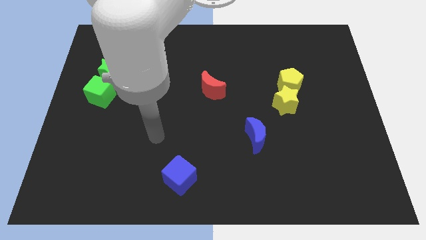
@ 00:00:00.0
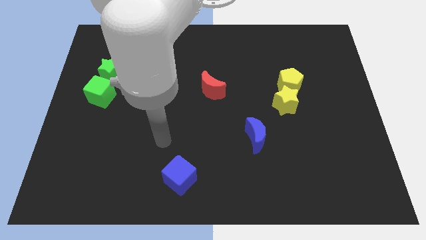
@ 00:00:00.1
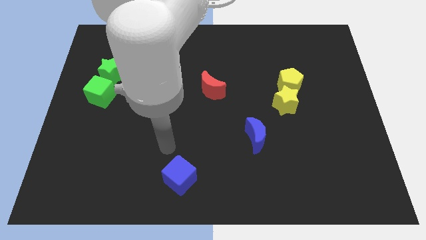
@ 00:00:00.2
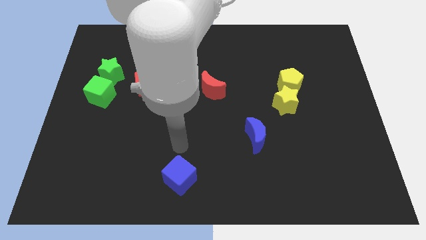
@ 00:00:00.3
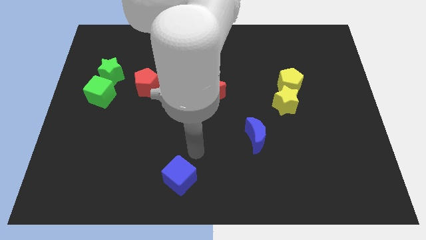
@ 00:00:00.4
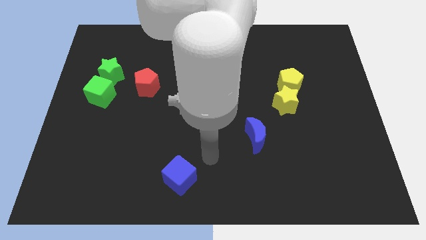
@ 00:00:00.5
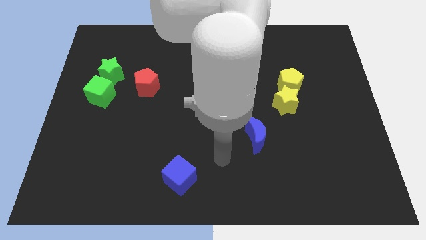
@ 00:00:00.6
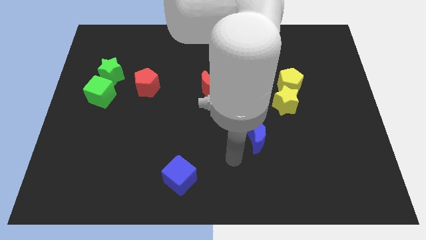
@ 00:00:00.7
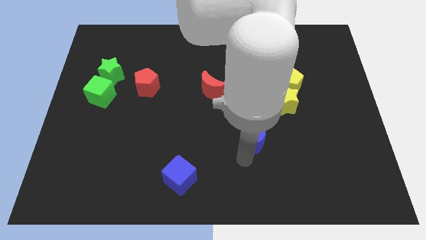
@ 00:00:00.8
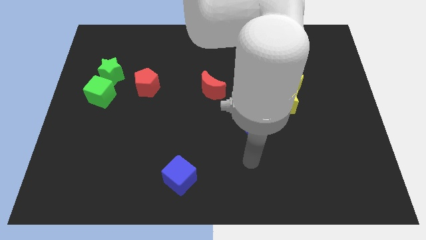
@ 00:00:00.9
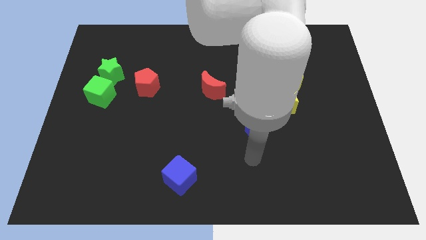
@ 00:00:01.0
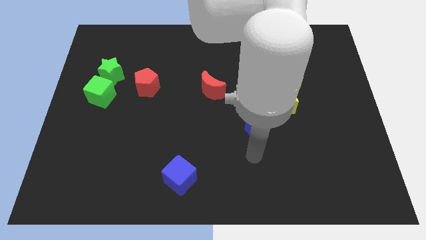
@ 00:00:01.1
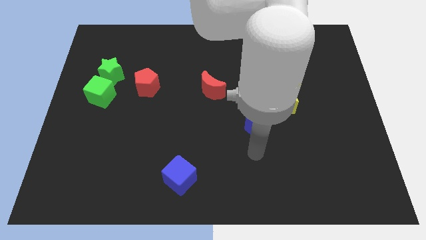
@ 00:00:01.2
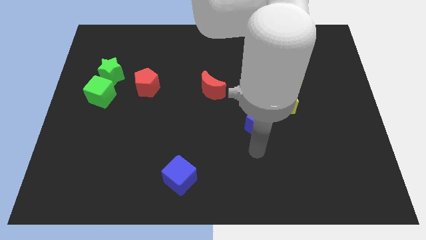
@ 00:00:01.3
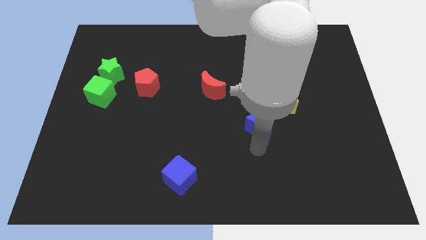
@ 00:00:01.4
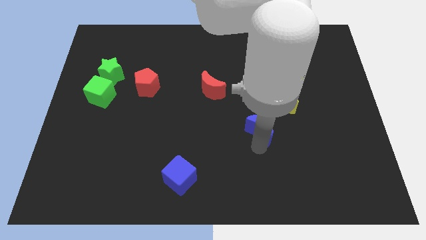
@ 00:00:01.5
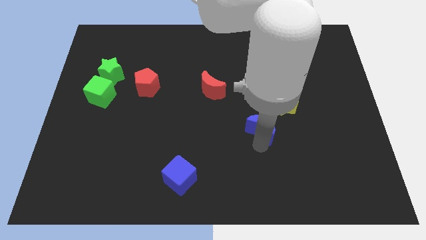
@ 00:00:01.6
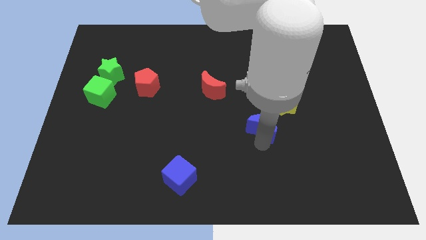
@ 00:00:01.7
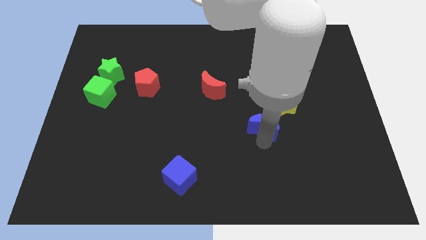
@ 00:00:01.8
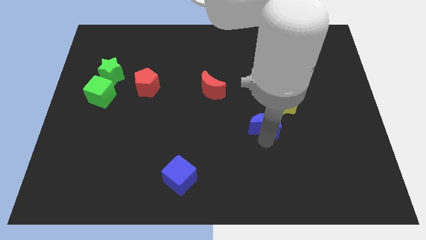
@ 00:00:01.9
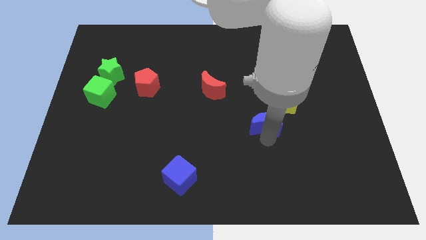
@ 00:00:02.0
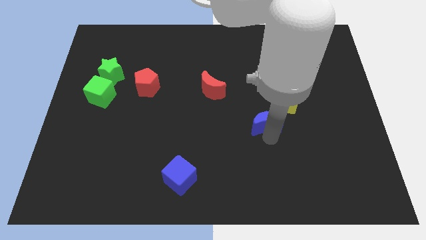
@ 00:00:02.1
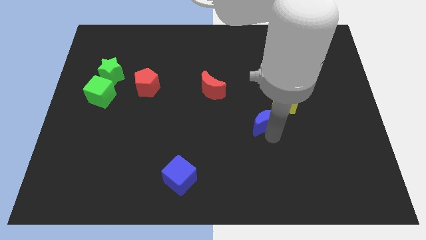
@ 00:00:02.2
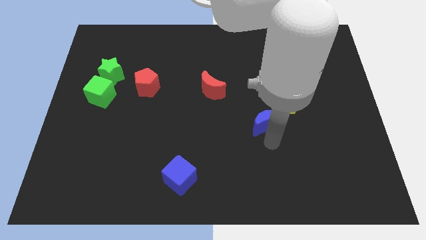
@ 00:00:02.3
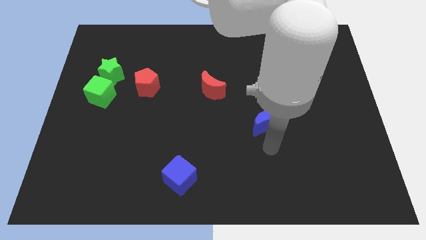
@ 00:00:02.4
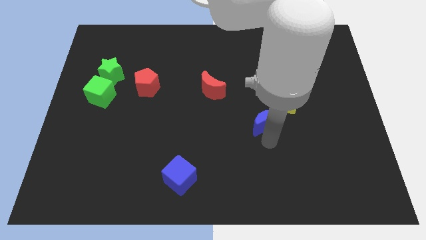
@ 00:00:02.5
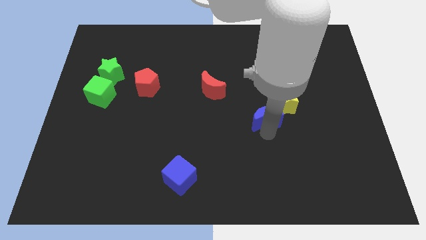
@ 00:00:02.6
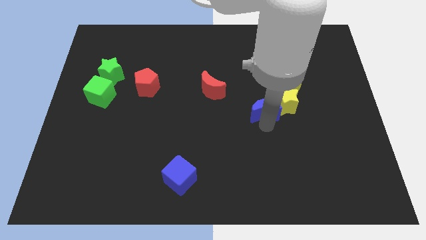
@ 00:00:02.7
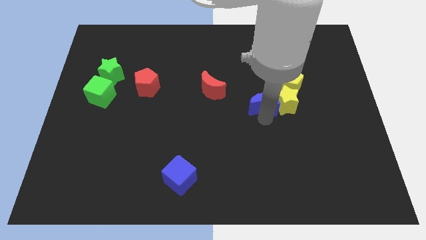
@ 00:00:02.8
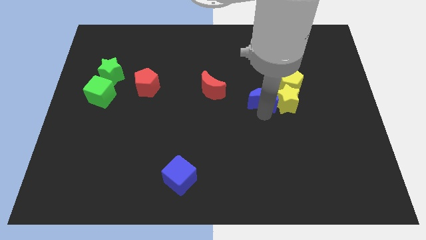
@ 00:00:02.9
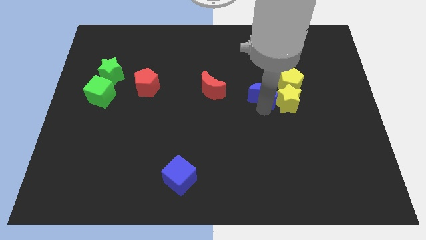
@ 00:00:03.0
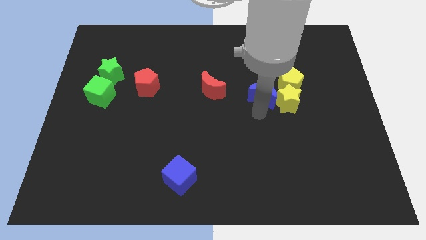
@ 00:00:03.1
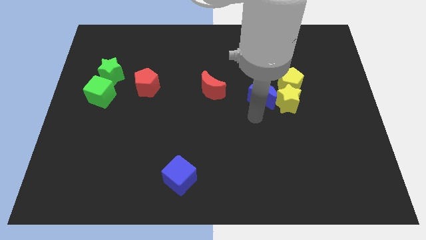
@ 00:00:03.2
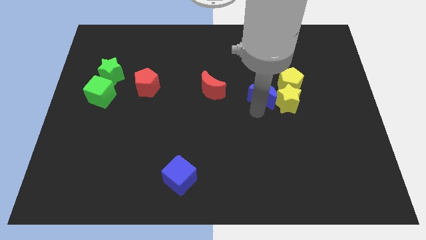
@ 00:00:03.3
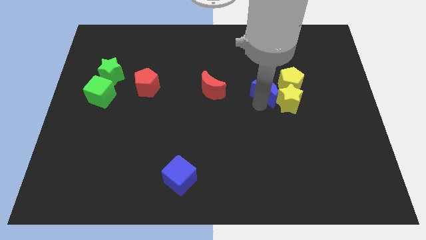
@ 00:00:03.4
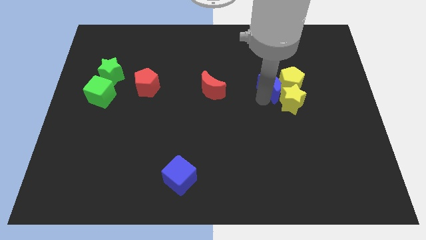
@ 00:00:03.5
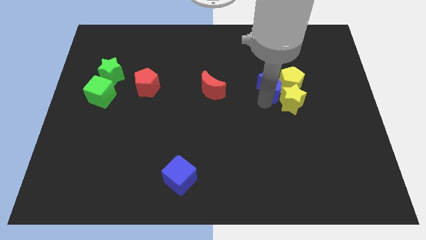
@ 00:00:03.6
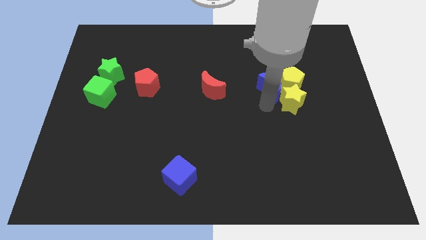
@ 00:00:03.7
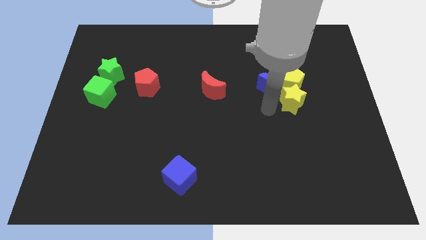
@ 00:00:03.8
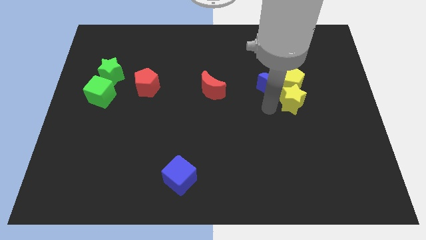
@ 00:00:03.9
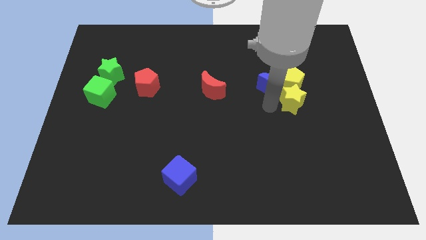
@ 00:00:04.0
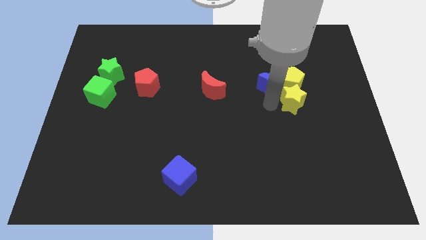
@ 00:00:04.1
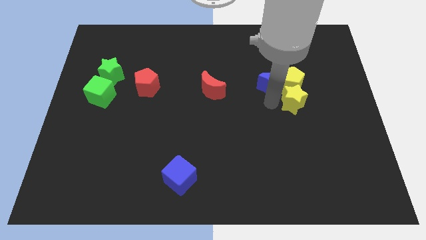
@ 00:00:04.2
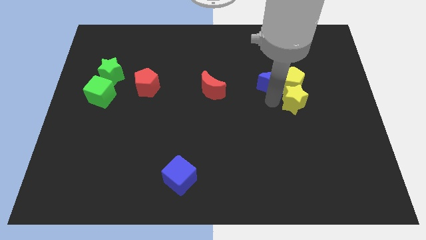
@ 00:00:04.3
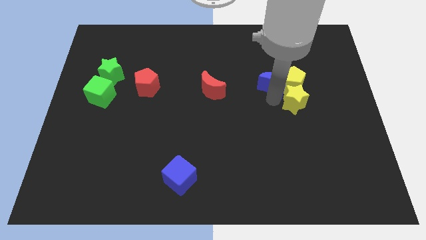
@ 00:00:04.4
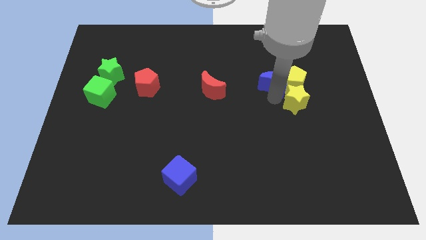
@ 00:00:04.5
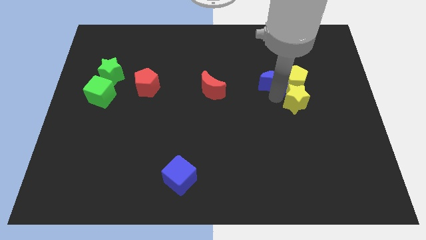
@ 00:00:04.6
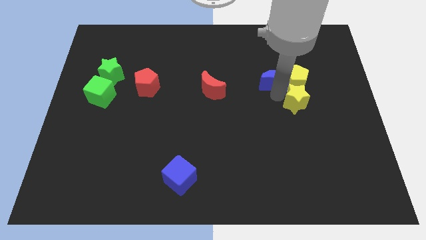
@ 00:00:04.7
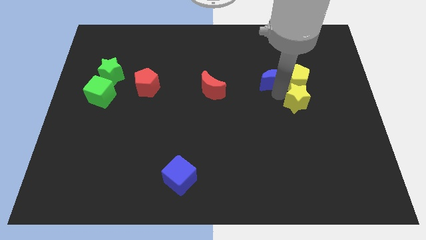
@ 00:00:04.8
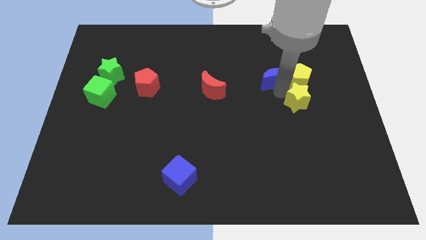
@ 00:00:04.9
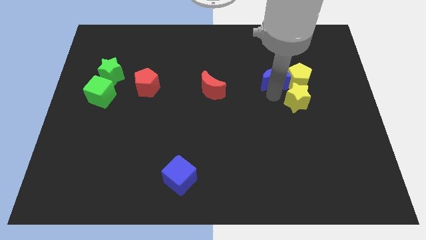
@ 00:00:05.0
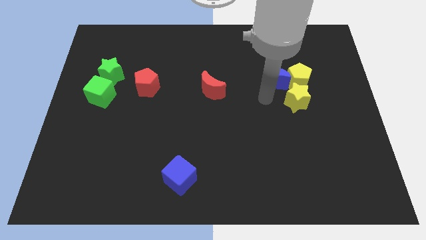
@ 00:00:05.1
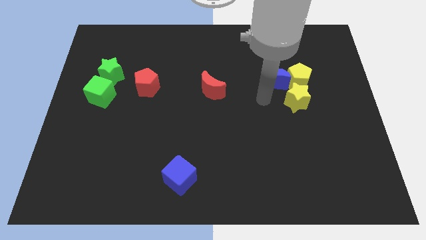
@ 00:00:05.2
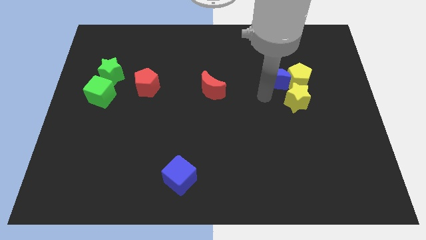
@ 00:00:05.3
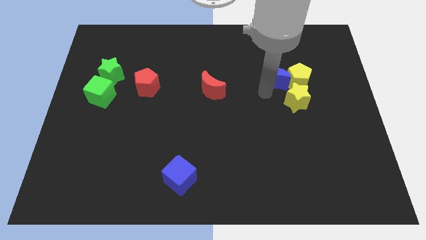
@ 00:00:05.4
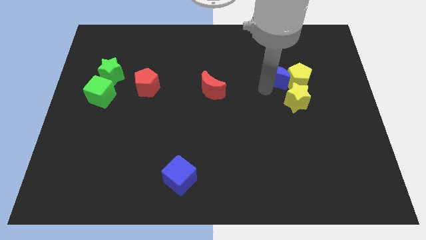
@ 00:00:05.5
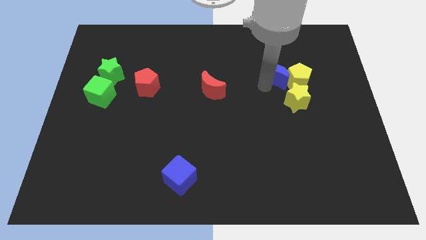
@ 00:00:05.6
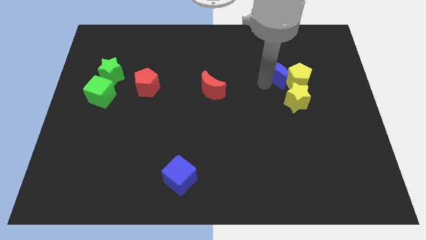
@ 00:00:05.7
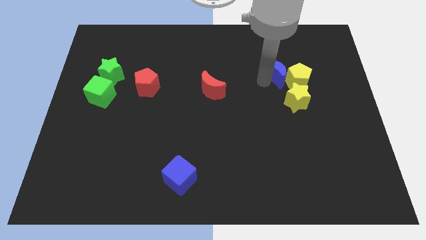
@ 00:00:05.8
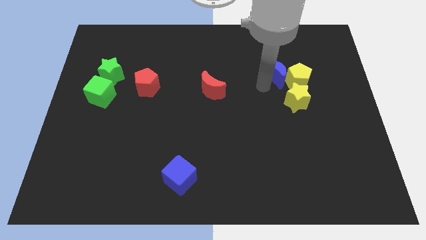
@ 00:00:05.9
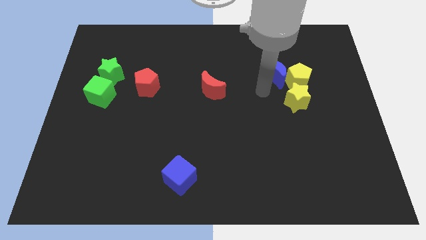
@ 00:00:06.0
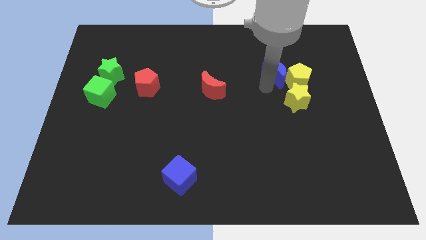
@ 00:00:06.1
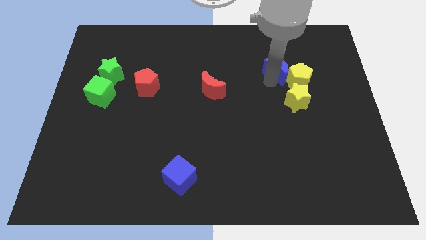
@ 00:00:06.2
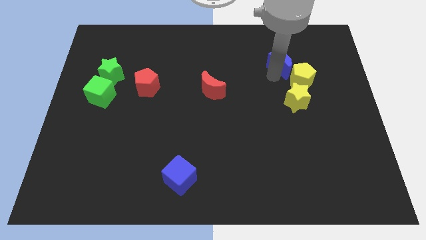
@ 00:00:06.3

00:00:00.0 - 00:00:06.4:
put the blue moon to the top side of the yellow pentagon
